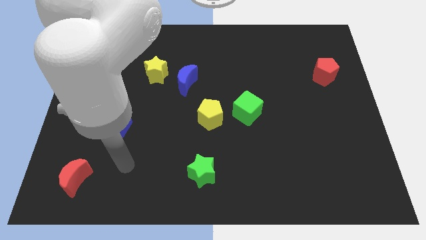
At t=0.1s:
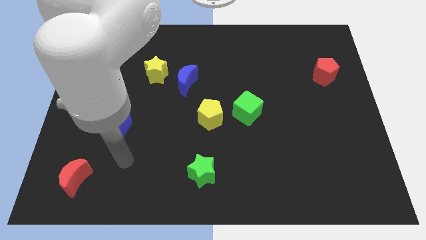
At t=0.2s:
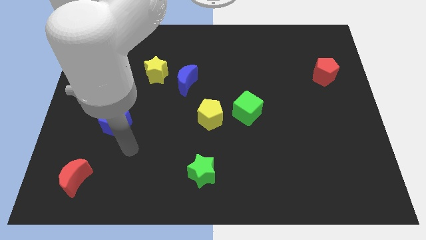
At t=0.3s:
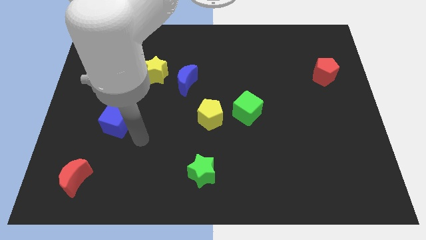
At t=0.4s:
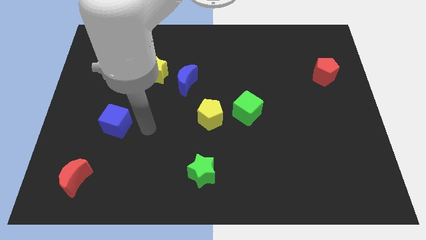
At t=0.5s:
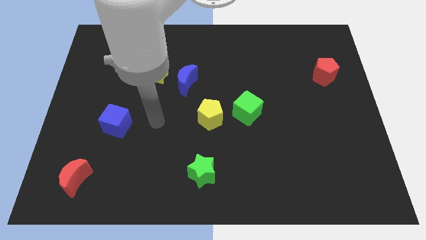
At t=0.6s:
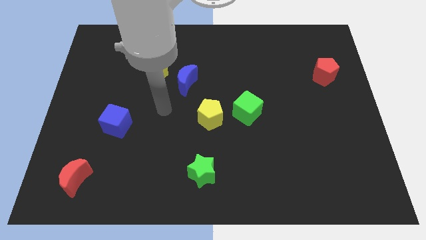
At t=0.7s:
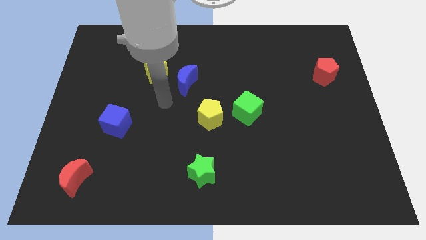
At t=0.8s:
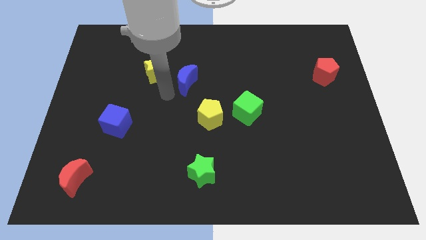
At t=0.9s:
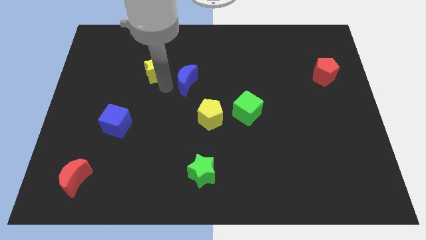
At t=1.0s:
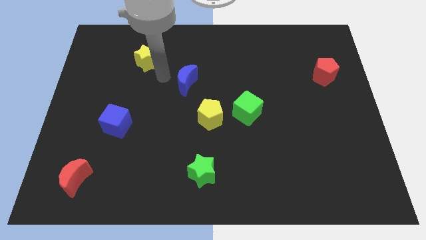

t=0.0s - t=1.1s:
move the blue moon away from the yellow star

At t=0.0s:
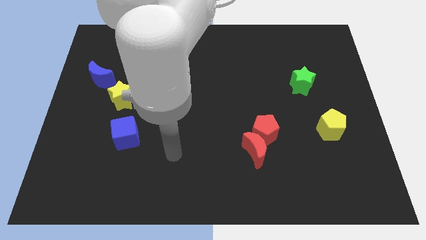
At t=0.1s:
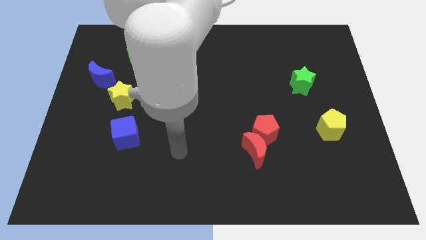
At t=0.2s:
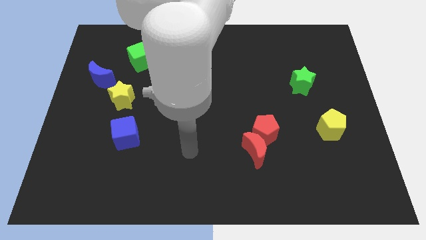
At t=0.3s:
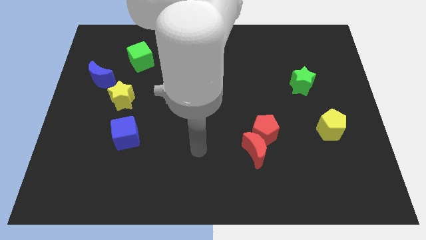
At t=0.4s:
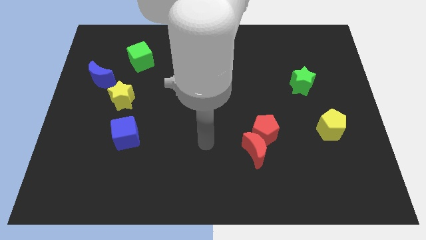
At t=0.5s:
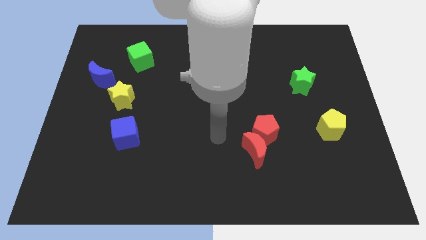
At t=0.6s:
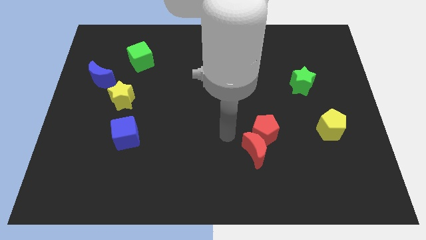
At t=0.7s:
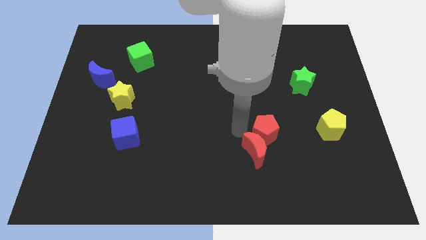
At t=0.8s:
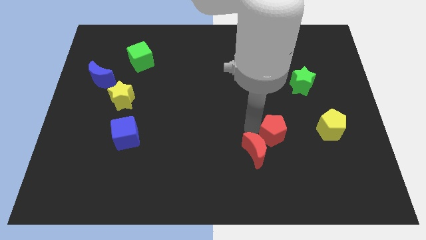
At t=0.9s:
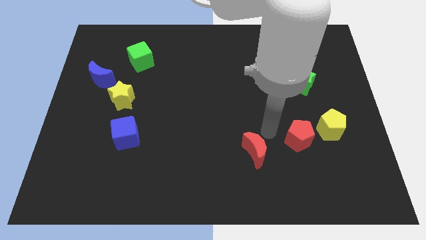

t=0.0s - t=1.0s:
move the red moon away from the red pentagon

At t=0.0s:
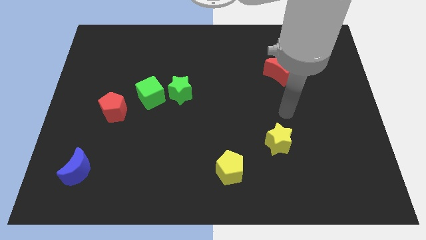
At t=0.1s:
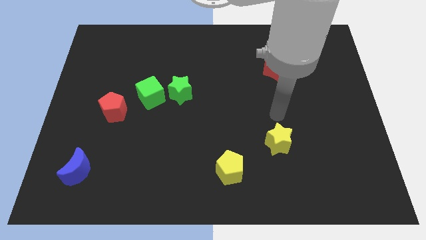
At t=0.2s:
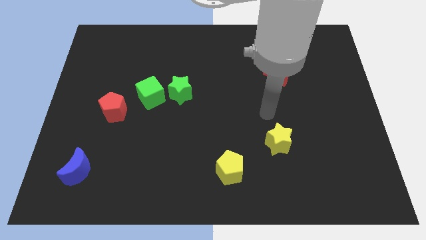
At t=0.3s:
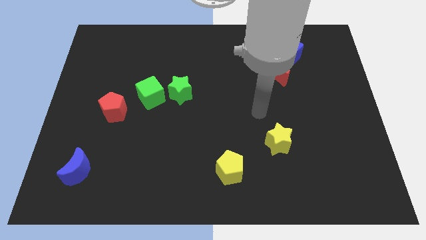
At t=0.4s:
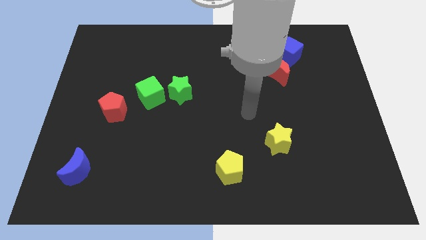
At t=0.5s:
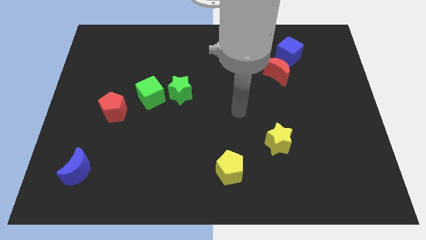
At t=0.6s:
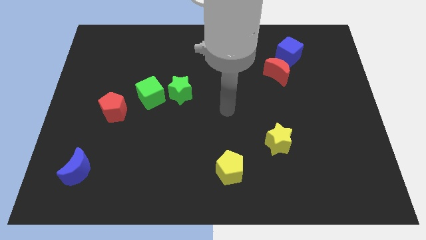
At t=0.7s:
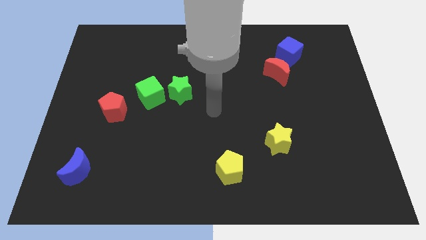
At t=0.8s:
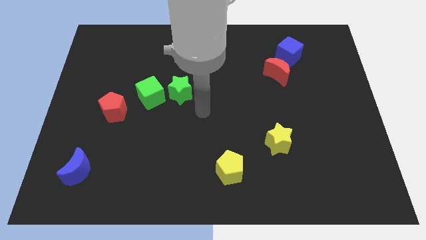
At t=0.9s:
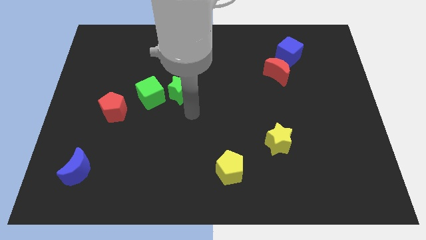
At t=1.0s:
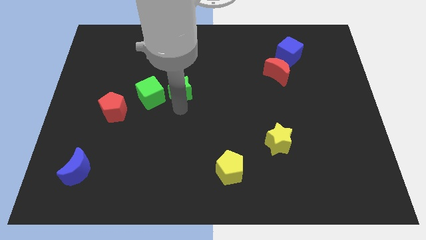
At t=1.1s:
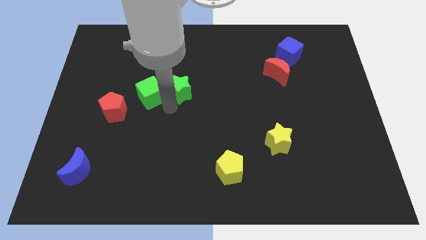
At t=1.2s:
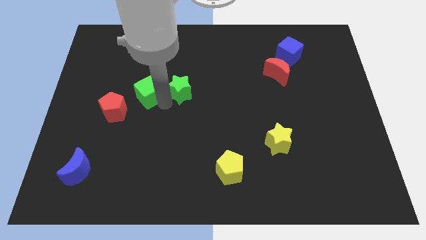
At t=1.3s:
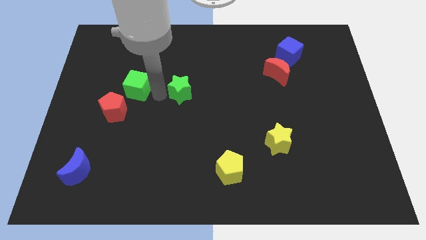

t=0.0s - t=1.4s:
separate the green star from the green cube

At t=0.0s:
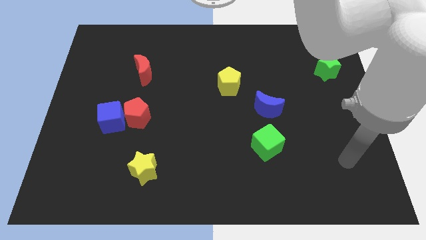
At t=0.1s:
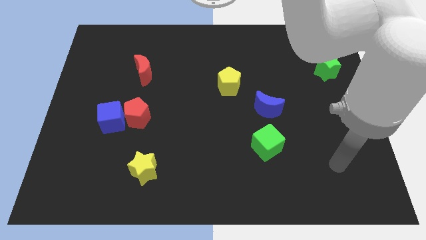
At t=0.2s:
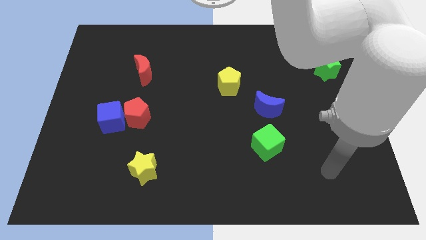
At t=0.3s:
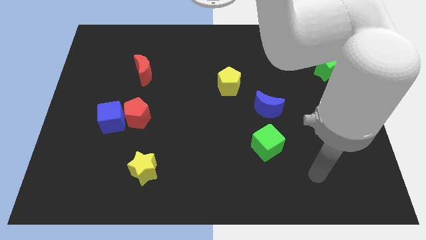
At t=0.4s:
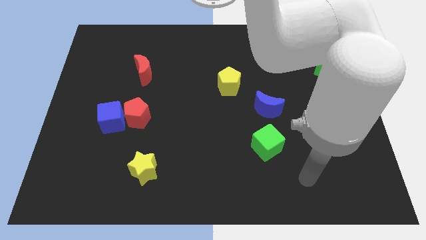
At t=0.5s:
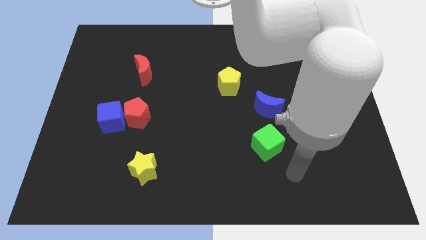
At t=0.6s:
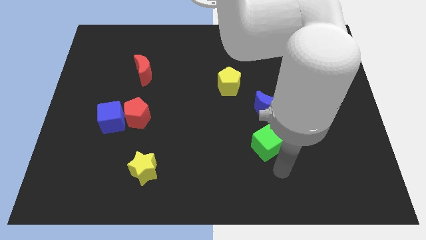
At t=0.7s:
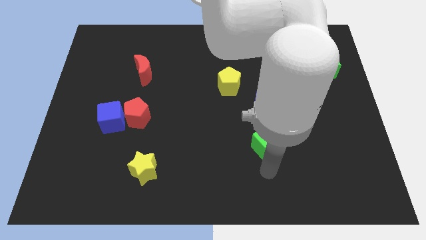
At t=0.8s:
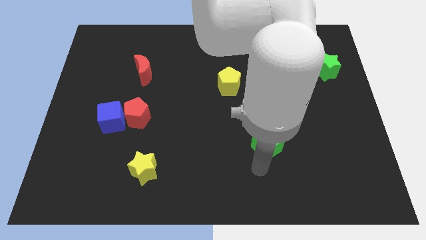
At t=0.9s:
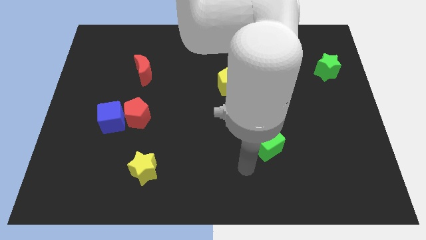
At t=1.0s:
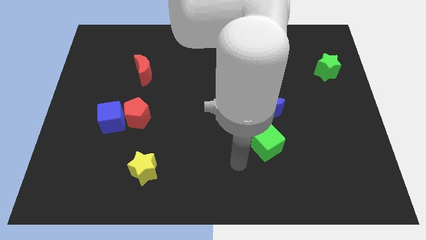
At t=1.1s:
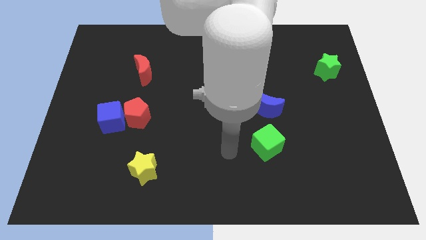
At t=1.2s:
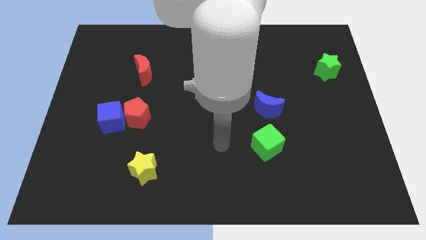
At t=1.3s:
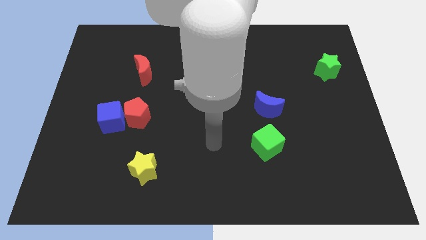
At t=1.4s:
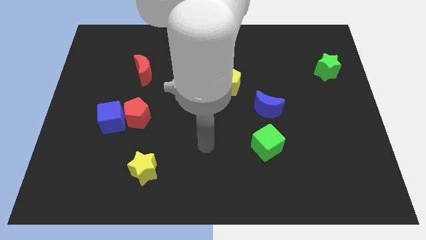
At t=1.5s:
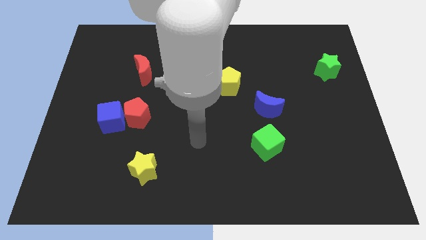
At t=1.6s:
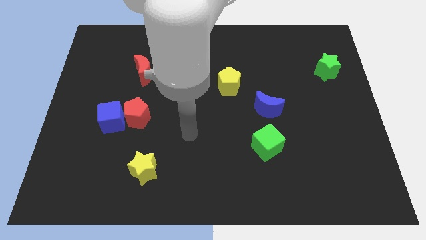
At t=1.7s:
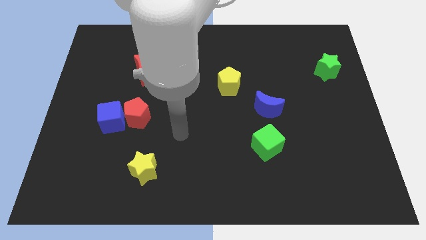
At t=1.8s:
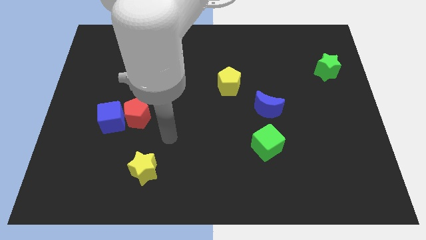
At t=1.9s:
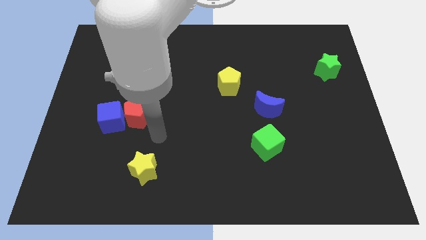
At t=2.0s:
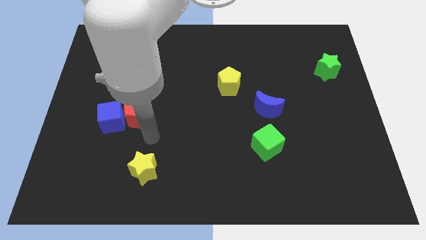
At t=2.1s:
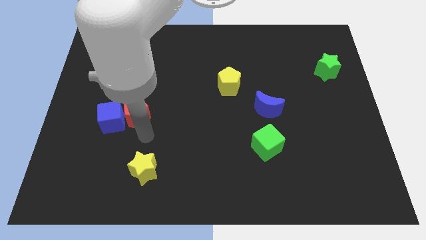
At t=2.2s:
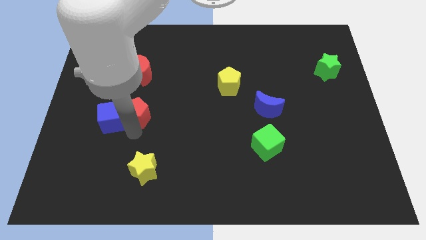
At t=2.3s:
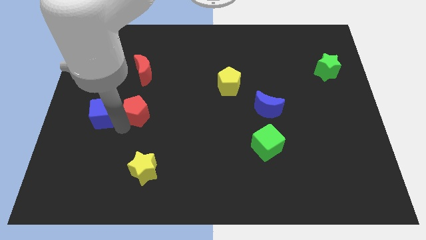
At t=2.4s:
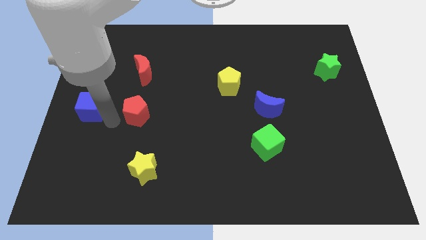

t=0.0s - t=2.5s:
pull the red pentagon apart from the blue cube

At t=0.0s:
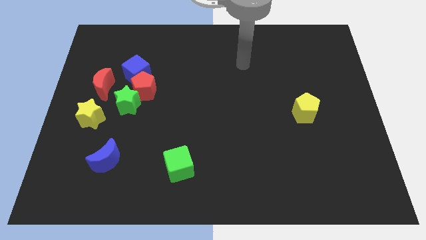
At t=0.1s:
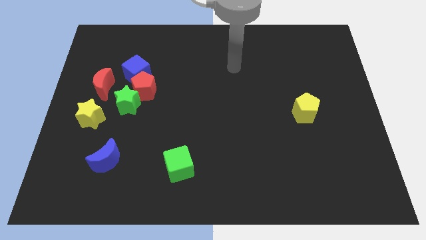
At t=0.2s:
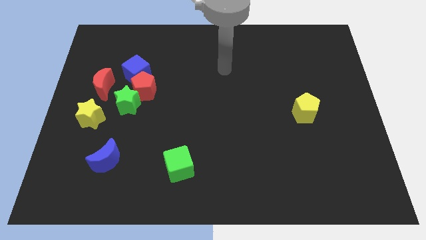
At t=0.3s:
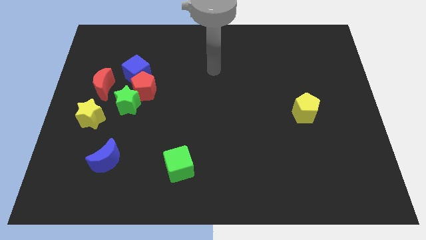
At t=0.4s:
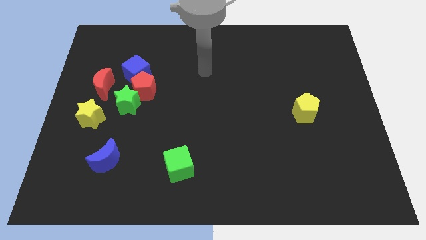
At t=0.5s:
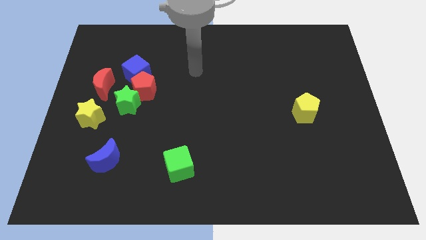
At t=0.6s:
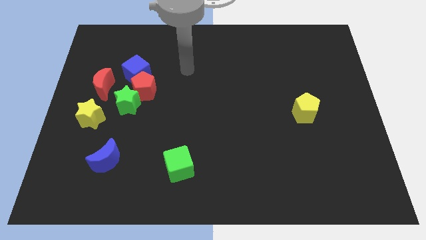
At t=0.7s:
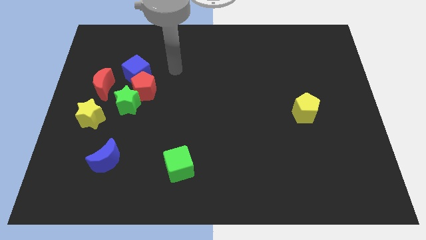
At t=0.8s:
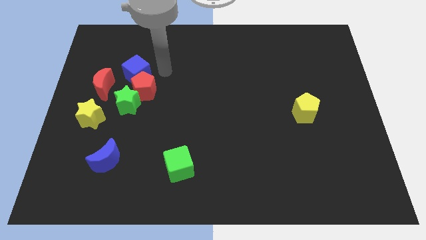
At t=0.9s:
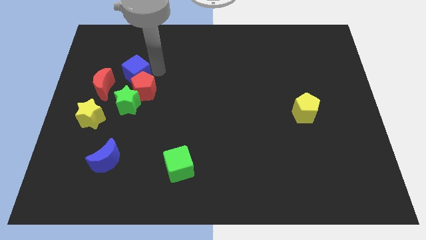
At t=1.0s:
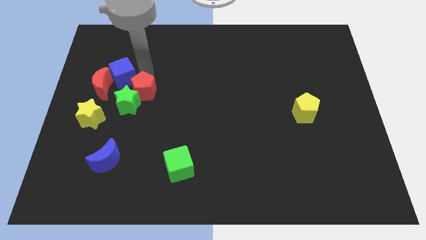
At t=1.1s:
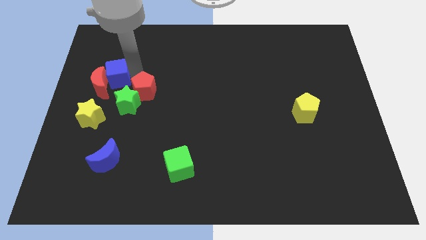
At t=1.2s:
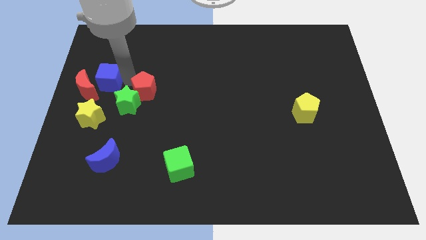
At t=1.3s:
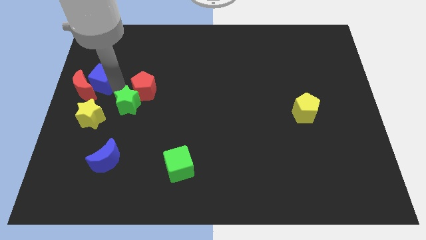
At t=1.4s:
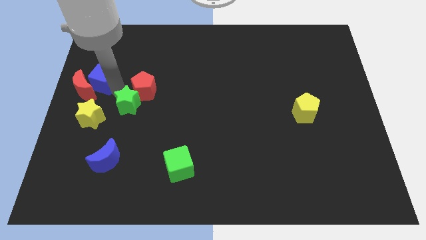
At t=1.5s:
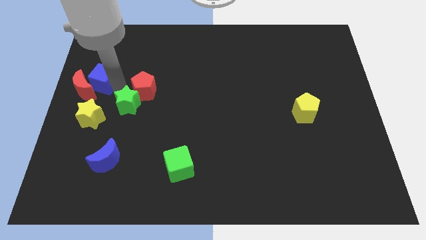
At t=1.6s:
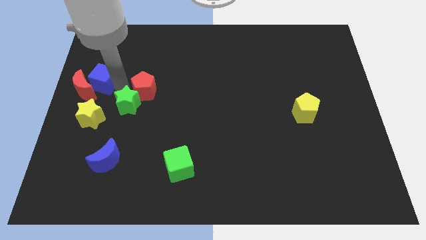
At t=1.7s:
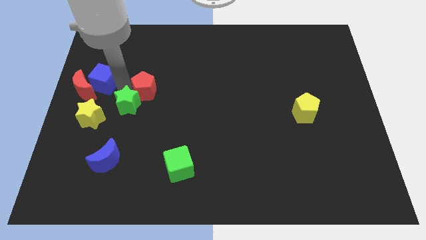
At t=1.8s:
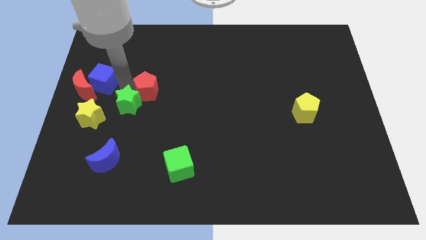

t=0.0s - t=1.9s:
separate the red pentagon from the green star, blue cube, and red moon

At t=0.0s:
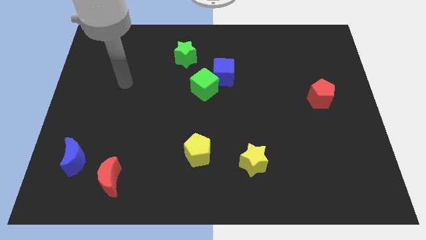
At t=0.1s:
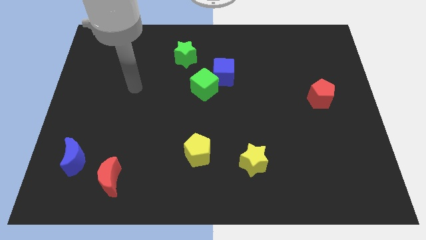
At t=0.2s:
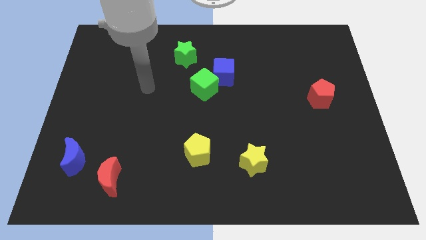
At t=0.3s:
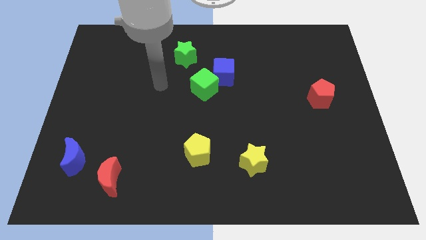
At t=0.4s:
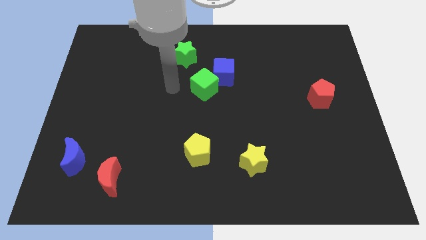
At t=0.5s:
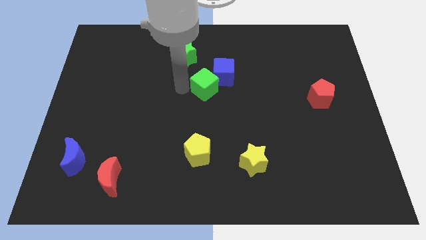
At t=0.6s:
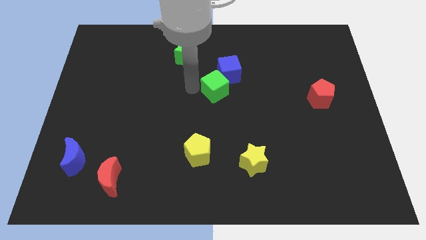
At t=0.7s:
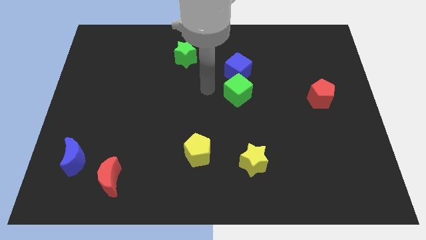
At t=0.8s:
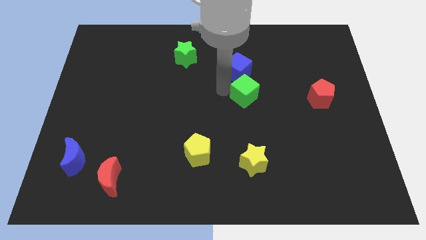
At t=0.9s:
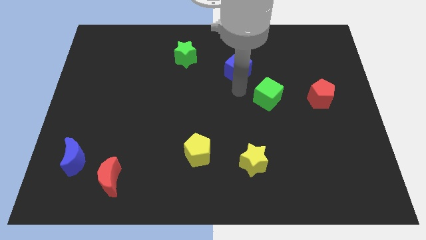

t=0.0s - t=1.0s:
separate the blue cube from the green cube

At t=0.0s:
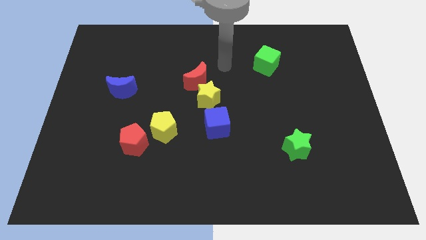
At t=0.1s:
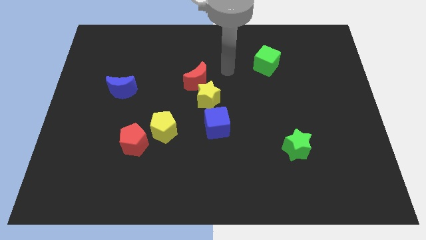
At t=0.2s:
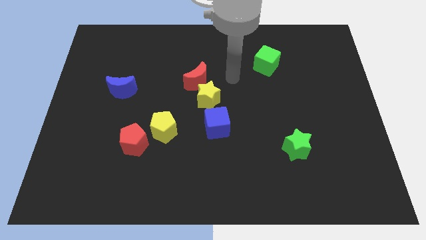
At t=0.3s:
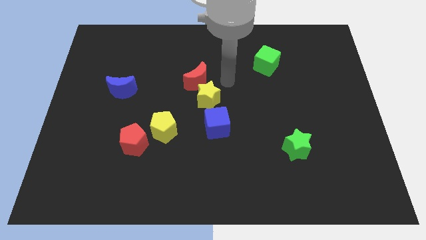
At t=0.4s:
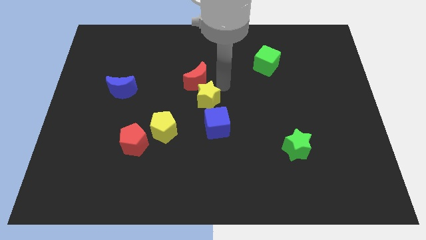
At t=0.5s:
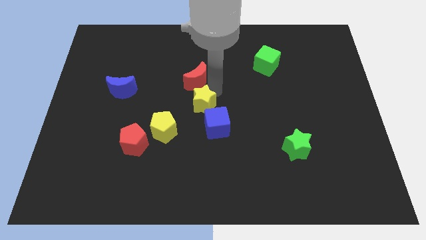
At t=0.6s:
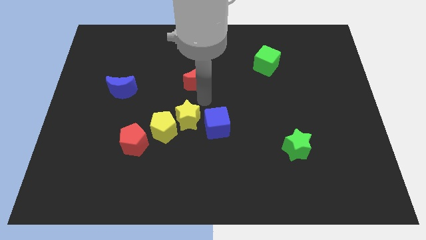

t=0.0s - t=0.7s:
separate the red moon from the yellow star
